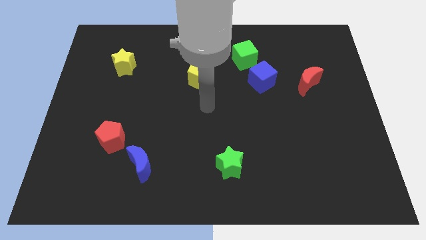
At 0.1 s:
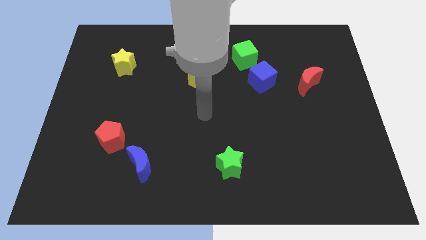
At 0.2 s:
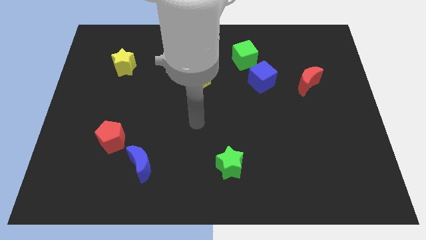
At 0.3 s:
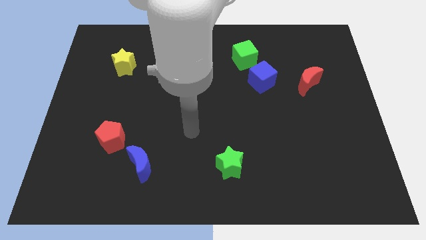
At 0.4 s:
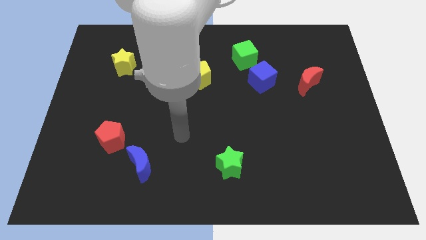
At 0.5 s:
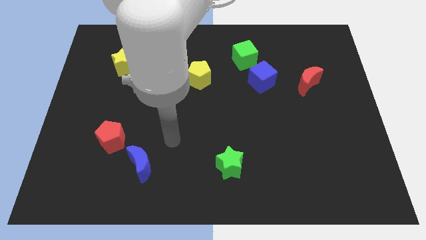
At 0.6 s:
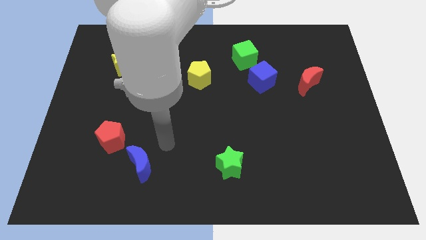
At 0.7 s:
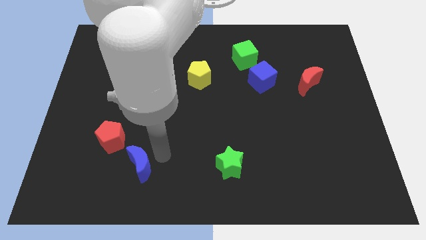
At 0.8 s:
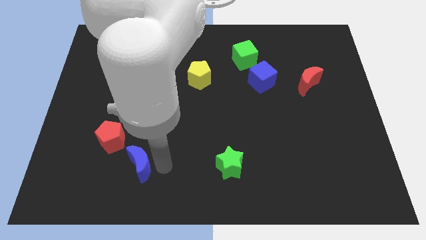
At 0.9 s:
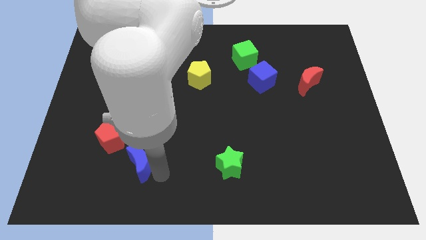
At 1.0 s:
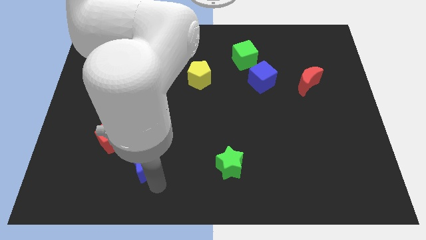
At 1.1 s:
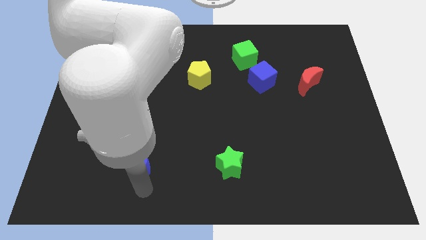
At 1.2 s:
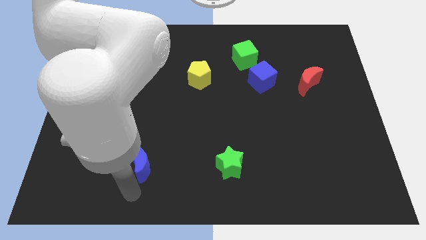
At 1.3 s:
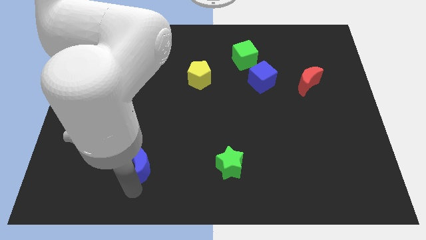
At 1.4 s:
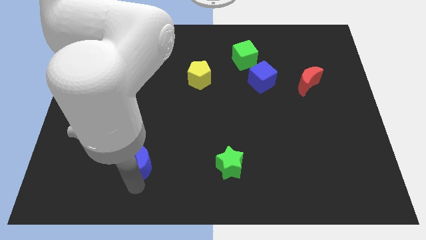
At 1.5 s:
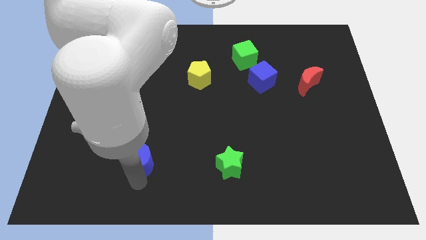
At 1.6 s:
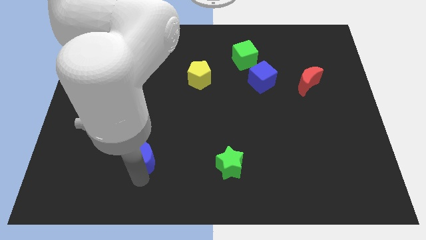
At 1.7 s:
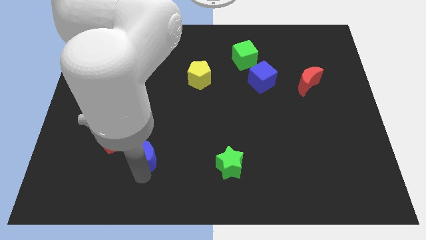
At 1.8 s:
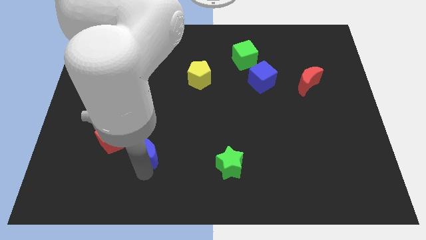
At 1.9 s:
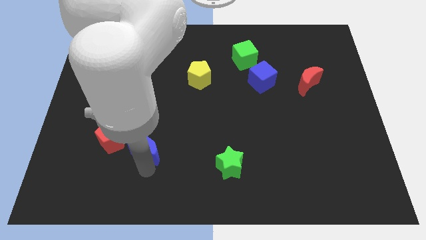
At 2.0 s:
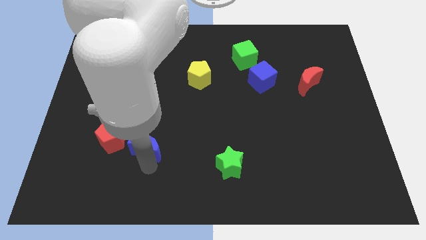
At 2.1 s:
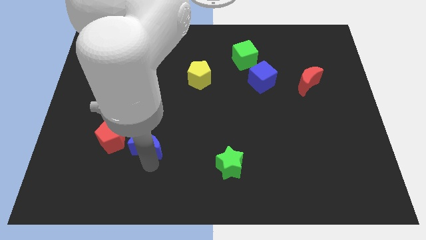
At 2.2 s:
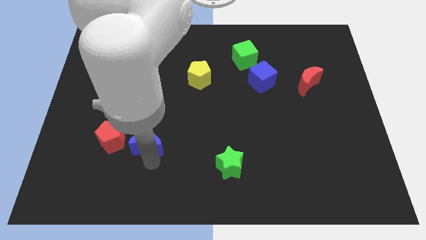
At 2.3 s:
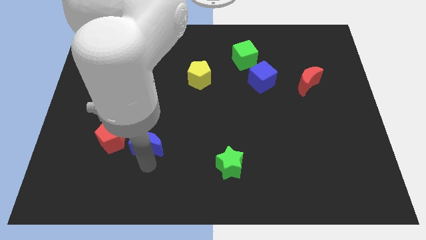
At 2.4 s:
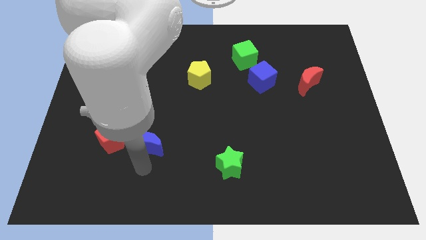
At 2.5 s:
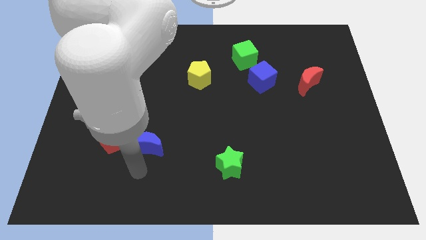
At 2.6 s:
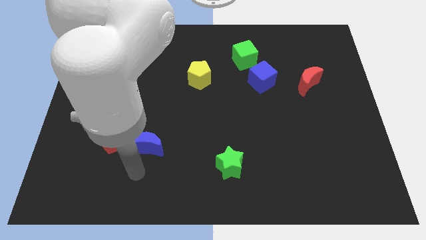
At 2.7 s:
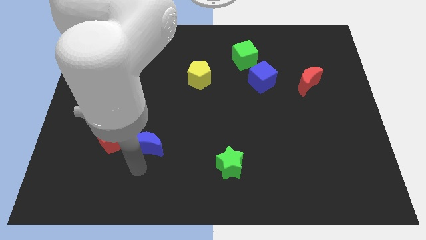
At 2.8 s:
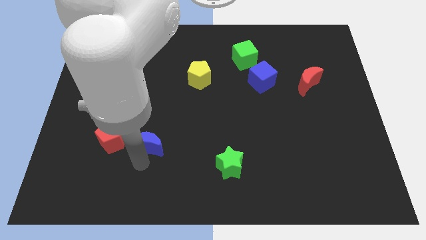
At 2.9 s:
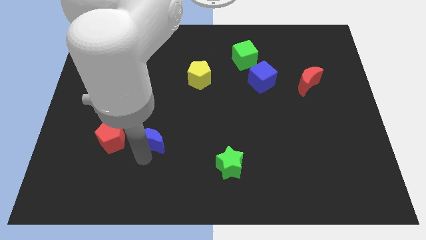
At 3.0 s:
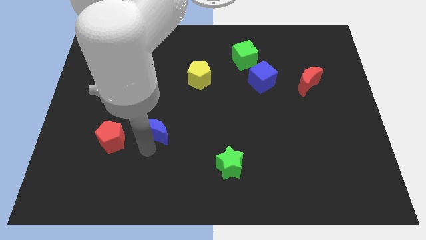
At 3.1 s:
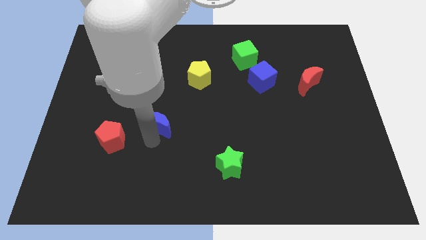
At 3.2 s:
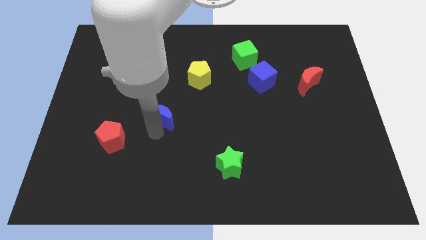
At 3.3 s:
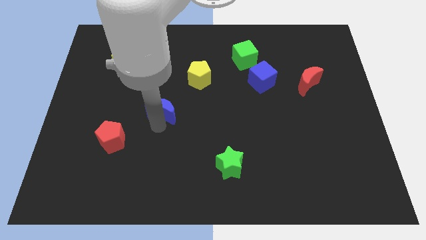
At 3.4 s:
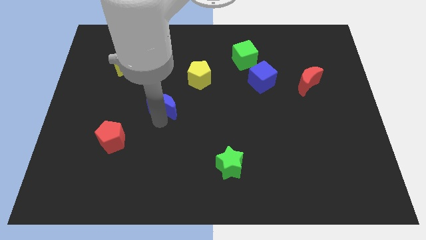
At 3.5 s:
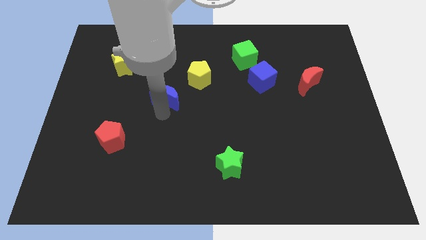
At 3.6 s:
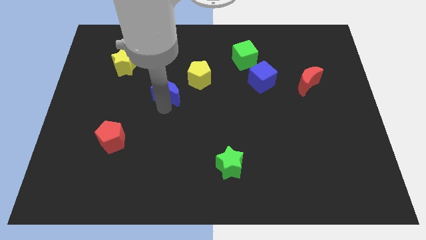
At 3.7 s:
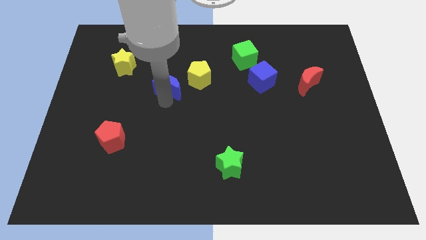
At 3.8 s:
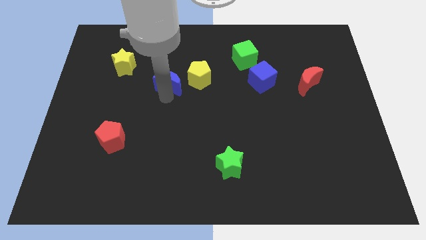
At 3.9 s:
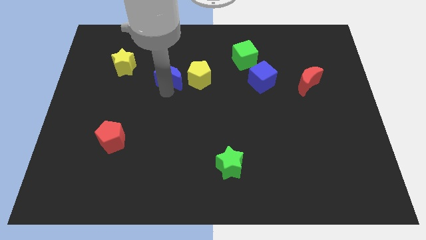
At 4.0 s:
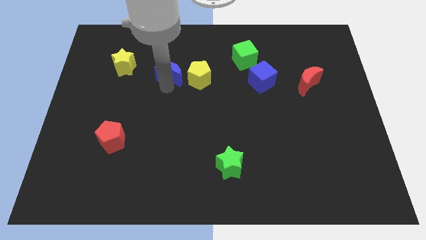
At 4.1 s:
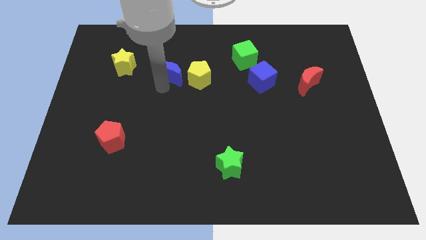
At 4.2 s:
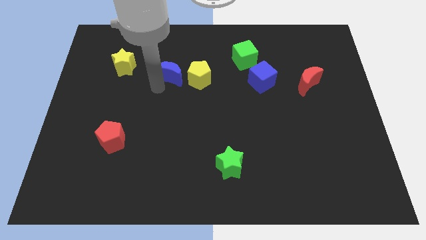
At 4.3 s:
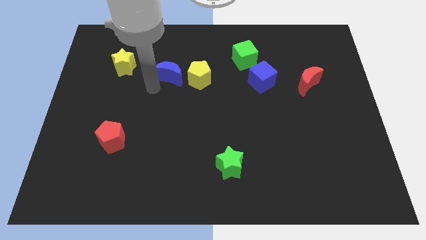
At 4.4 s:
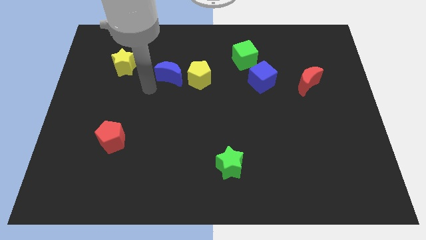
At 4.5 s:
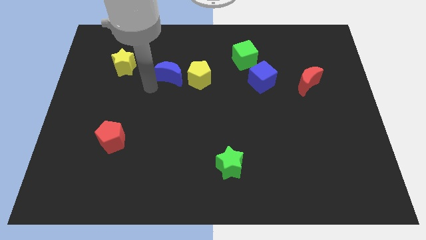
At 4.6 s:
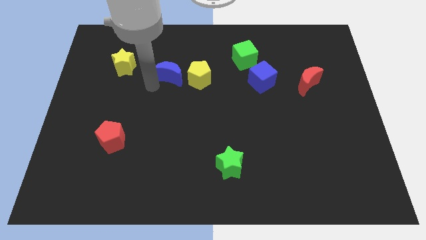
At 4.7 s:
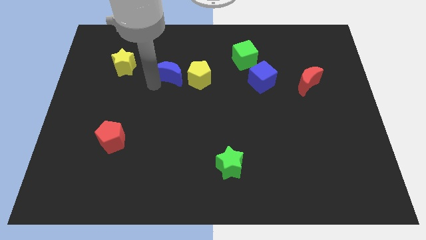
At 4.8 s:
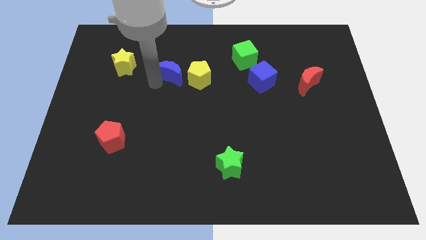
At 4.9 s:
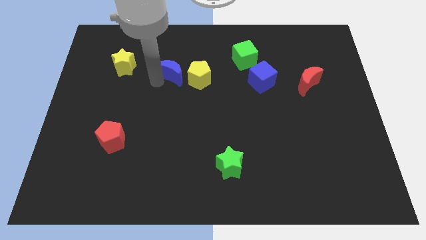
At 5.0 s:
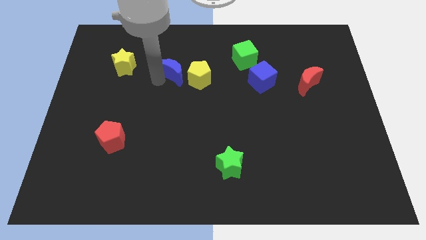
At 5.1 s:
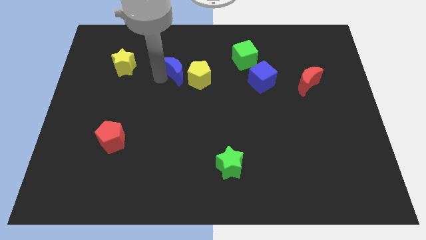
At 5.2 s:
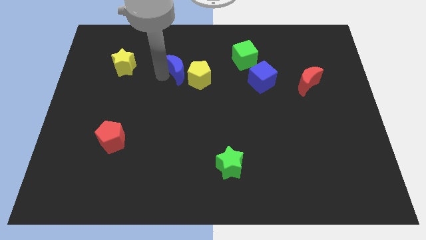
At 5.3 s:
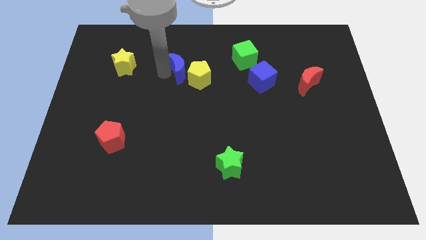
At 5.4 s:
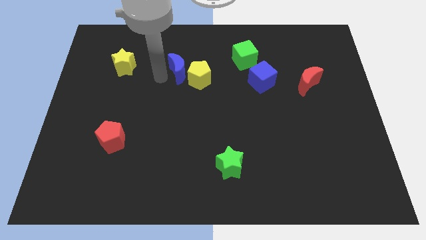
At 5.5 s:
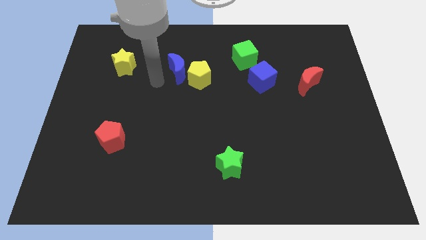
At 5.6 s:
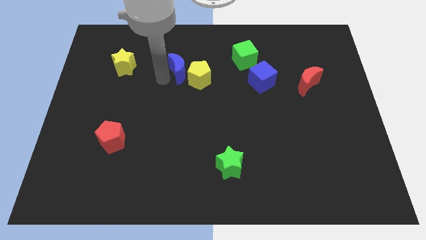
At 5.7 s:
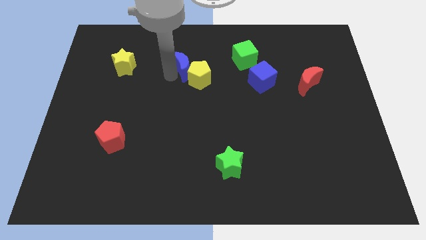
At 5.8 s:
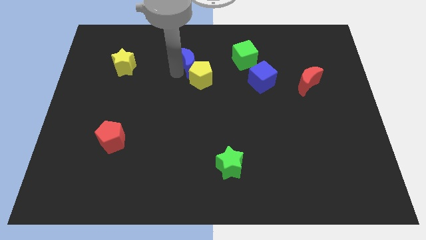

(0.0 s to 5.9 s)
move the blue moon left of the green cube

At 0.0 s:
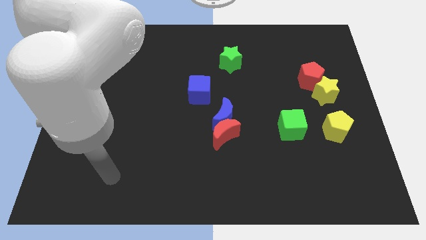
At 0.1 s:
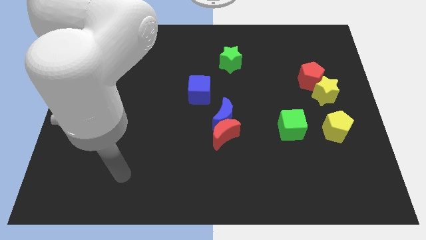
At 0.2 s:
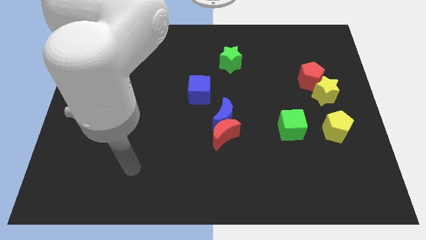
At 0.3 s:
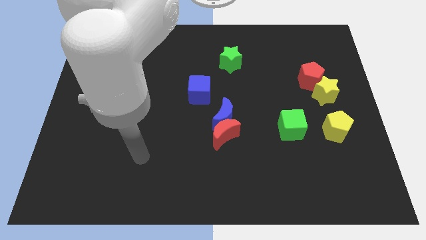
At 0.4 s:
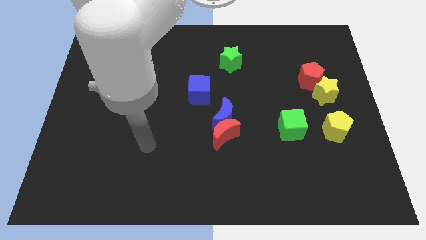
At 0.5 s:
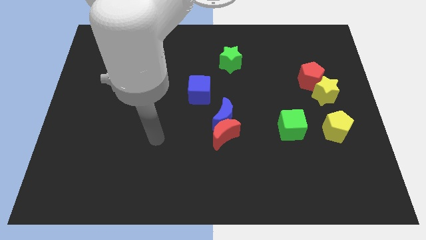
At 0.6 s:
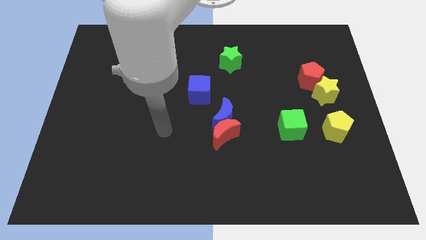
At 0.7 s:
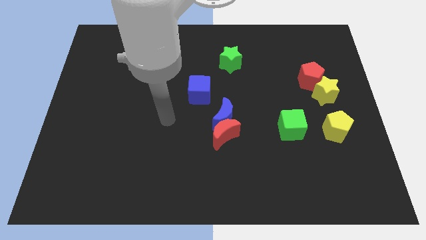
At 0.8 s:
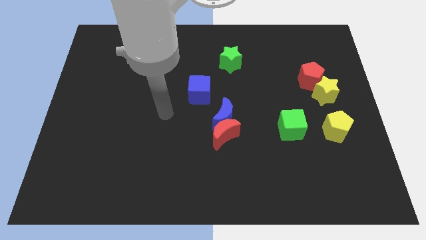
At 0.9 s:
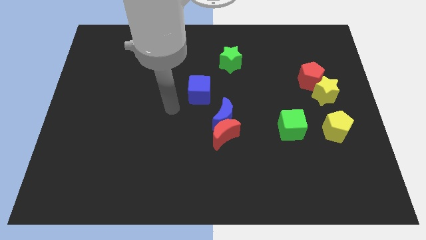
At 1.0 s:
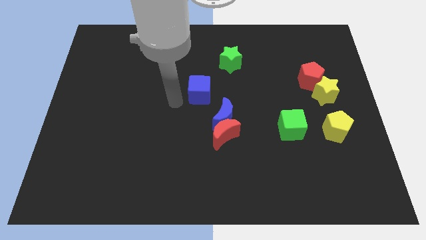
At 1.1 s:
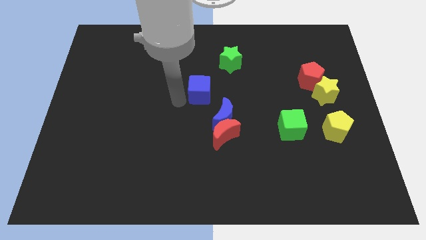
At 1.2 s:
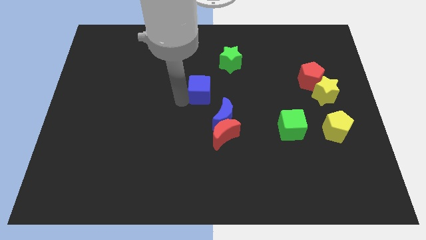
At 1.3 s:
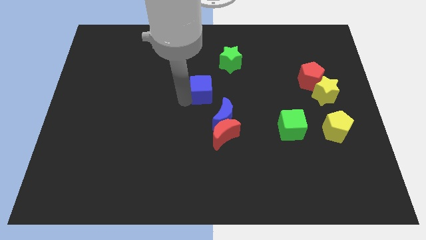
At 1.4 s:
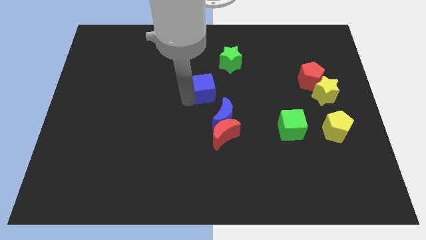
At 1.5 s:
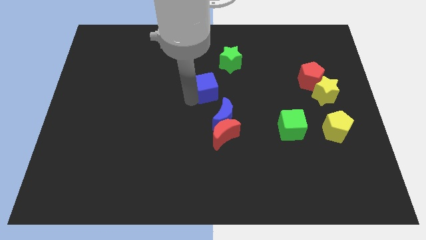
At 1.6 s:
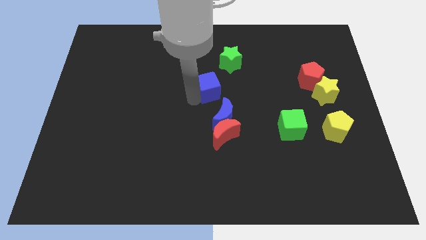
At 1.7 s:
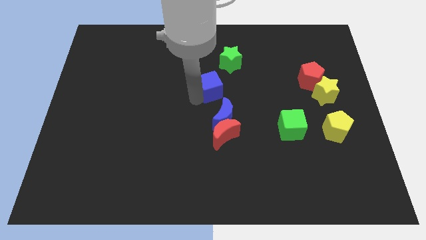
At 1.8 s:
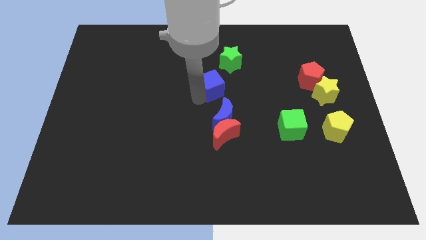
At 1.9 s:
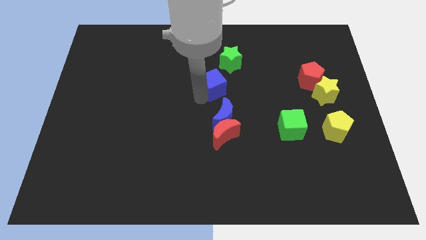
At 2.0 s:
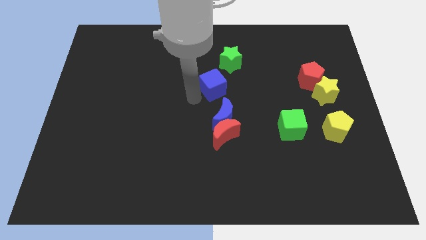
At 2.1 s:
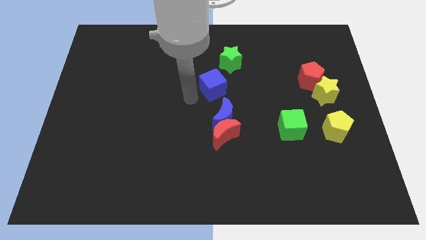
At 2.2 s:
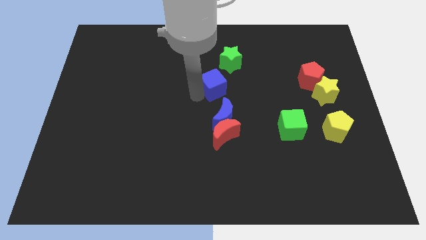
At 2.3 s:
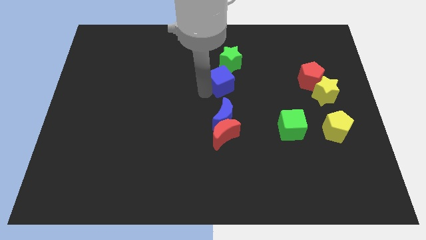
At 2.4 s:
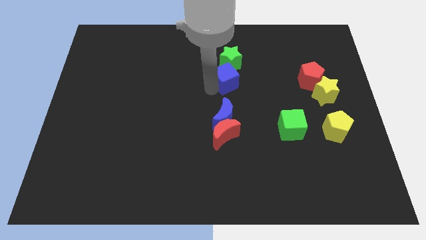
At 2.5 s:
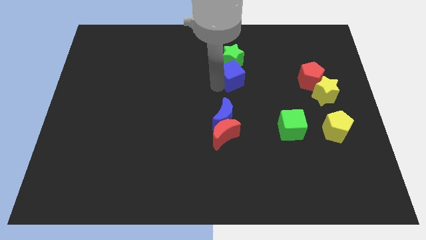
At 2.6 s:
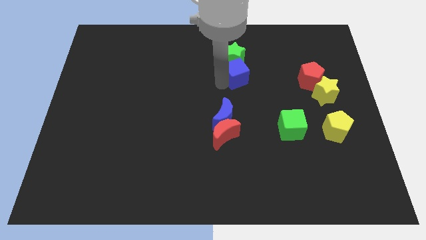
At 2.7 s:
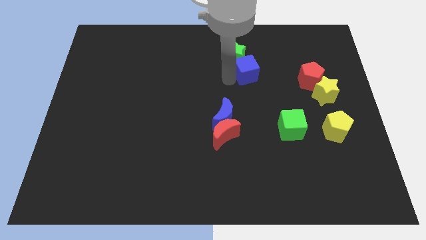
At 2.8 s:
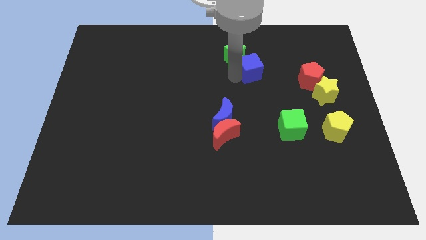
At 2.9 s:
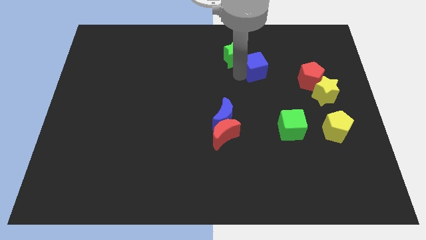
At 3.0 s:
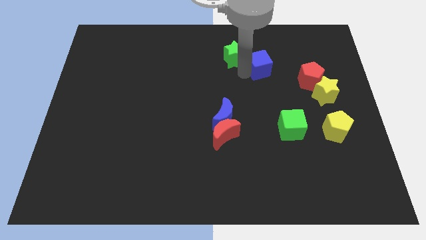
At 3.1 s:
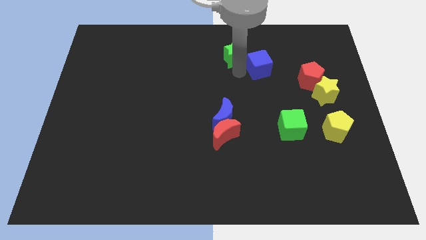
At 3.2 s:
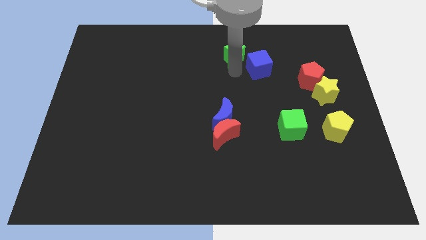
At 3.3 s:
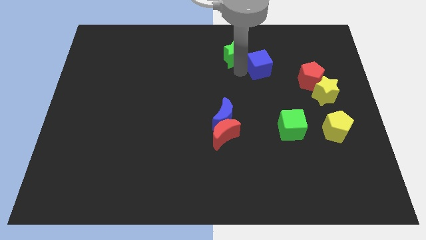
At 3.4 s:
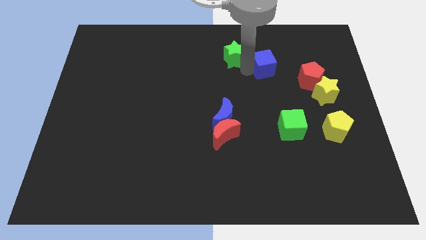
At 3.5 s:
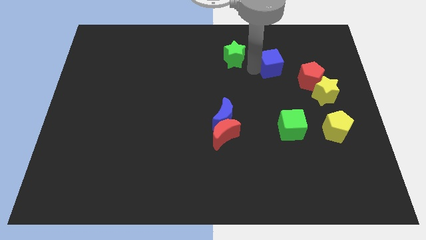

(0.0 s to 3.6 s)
move the blue cube to the top left side of the red pentagon
